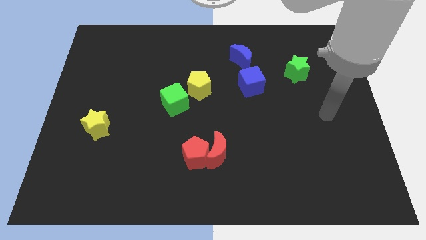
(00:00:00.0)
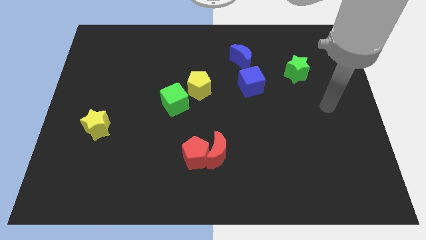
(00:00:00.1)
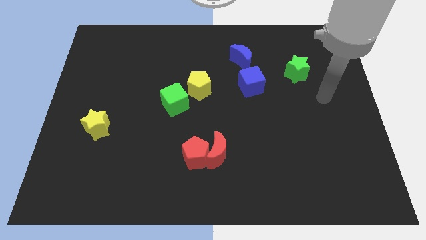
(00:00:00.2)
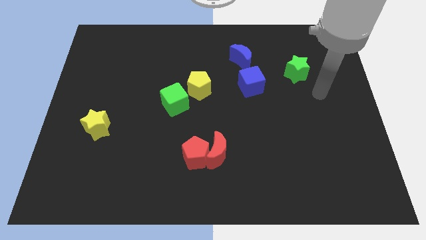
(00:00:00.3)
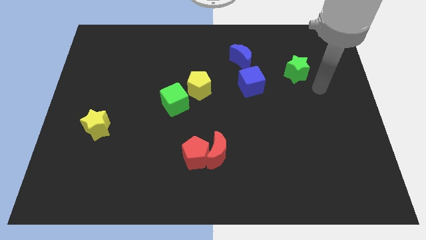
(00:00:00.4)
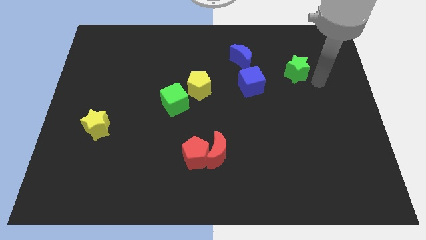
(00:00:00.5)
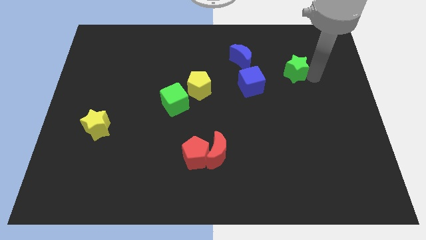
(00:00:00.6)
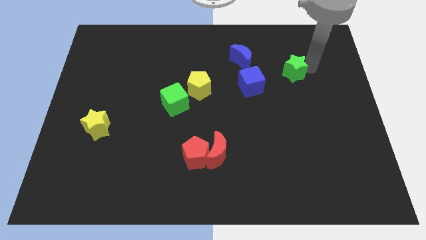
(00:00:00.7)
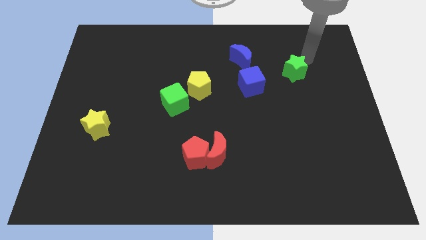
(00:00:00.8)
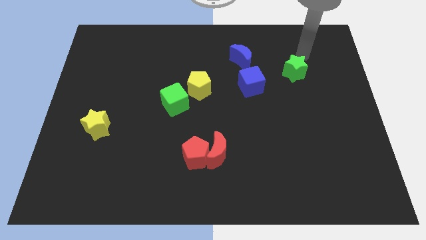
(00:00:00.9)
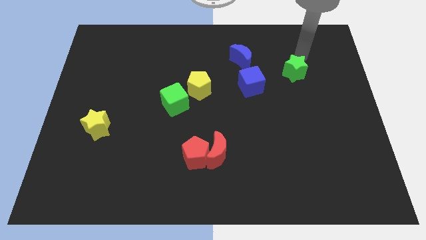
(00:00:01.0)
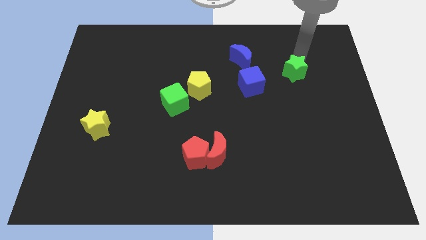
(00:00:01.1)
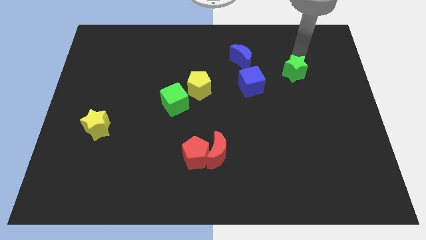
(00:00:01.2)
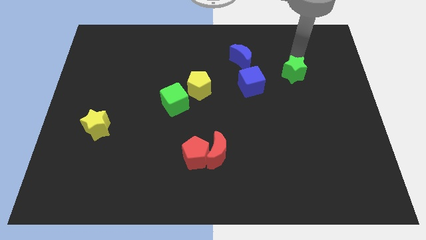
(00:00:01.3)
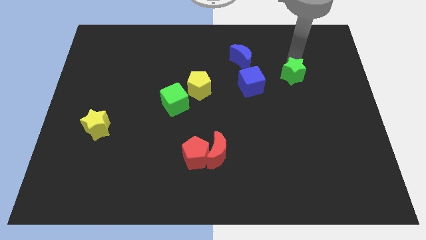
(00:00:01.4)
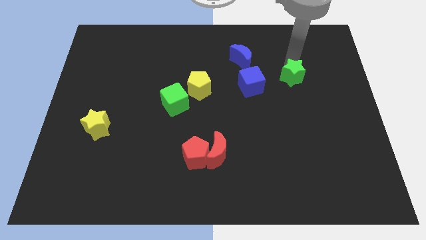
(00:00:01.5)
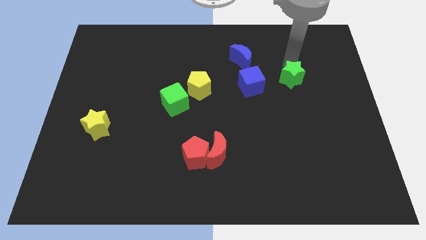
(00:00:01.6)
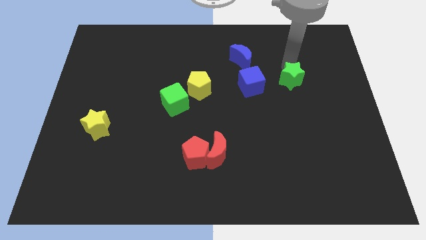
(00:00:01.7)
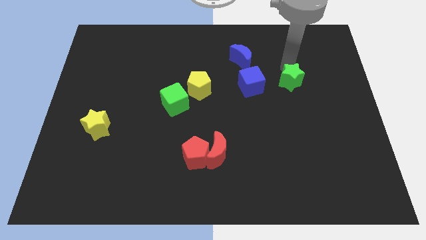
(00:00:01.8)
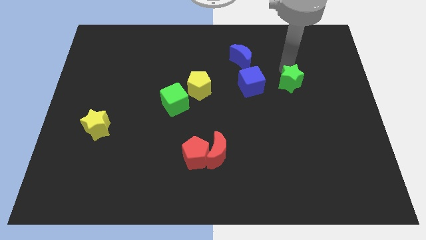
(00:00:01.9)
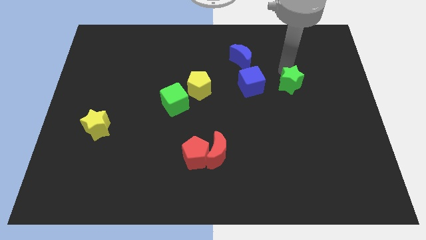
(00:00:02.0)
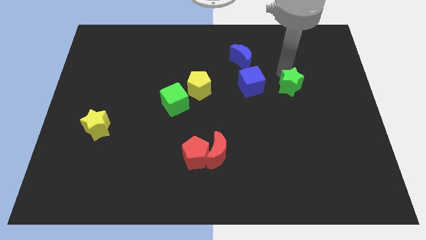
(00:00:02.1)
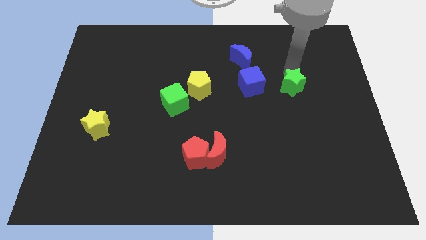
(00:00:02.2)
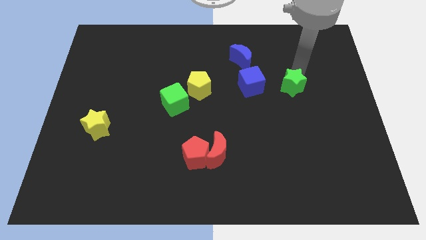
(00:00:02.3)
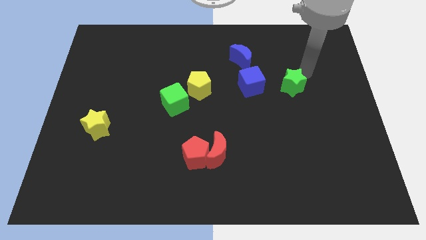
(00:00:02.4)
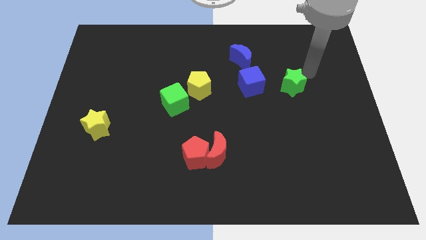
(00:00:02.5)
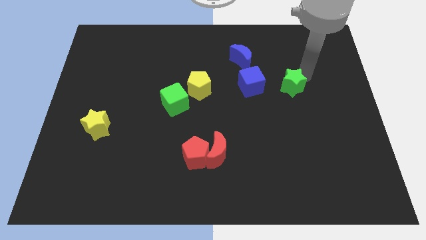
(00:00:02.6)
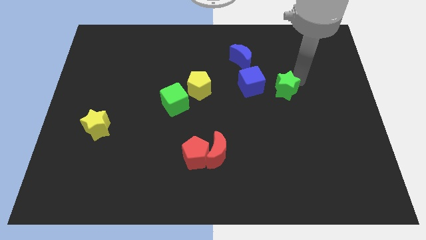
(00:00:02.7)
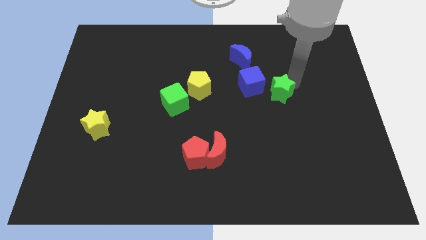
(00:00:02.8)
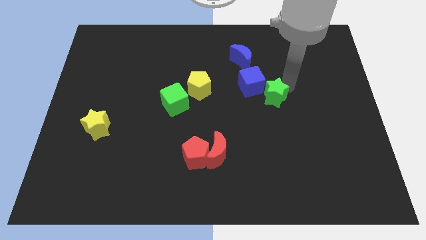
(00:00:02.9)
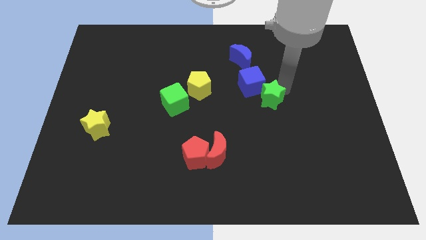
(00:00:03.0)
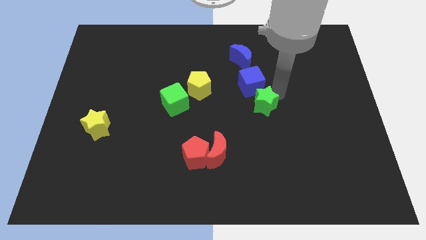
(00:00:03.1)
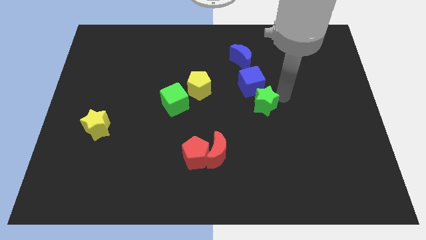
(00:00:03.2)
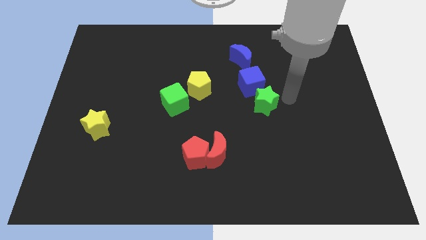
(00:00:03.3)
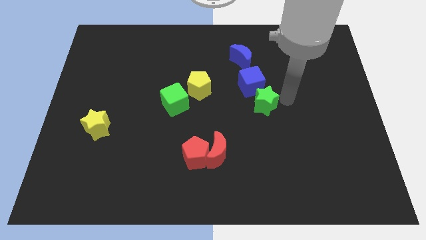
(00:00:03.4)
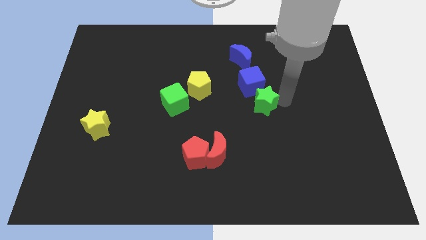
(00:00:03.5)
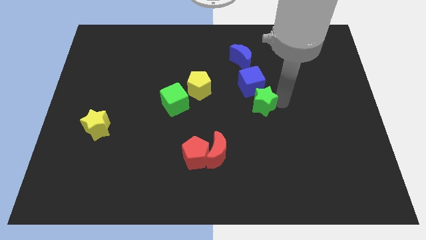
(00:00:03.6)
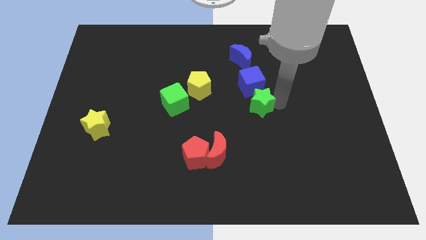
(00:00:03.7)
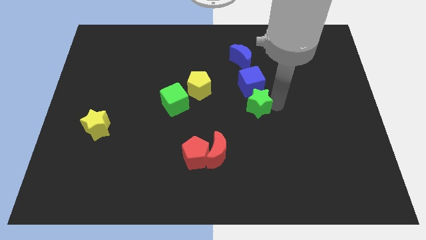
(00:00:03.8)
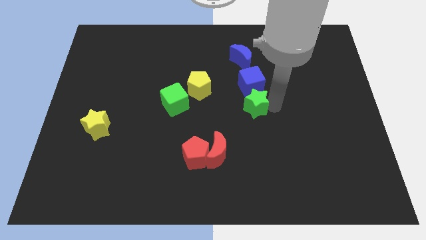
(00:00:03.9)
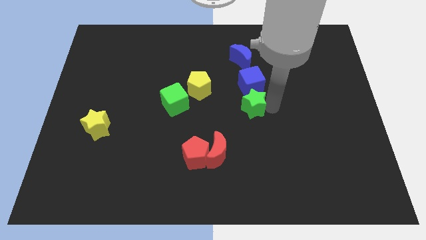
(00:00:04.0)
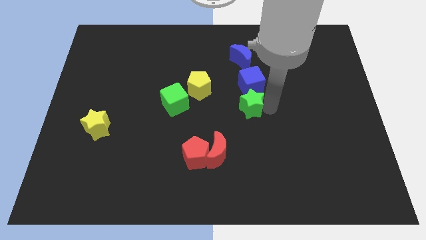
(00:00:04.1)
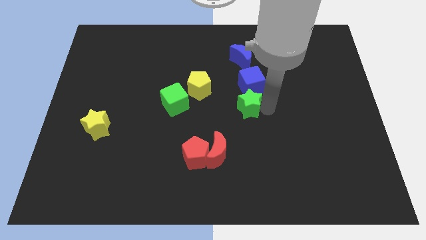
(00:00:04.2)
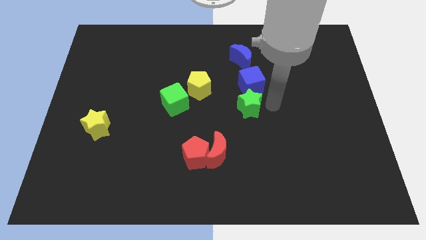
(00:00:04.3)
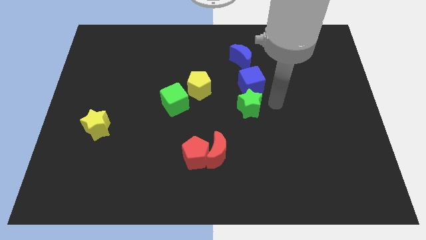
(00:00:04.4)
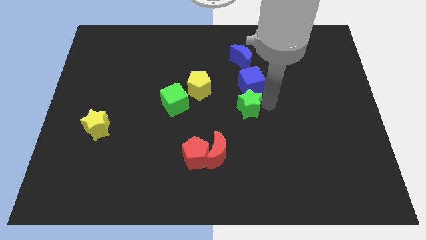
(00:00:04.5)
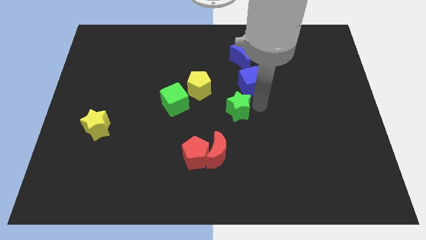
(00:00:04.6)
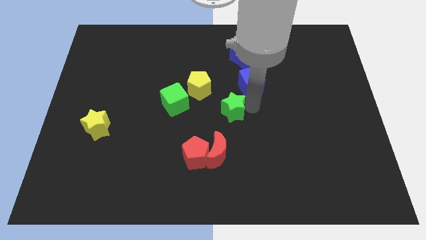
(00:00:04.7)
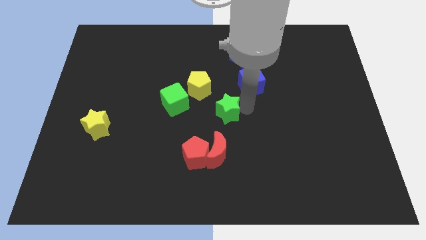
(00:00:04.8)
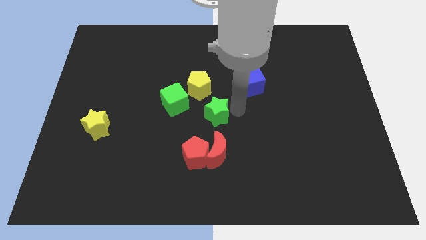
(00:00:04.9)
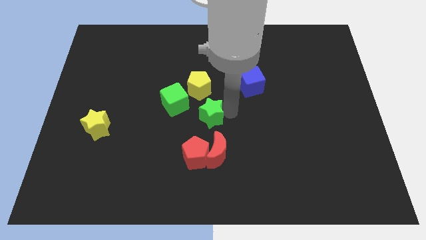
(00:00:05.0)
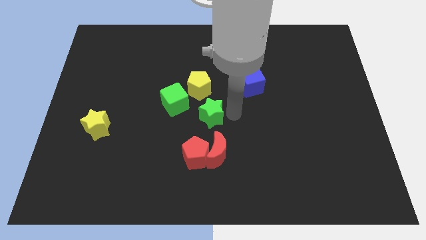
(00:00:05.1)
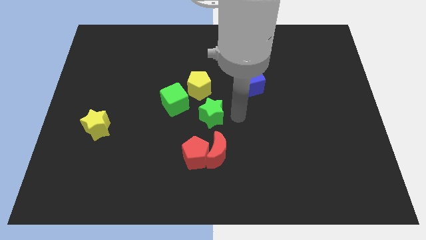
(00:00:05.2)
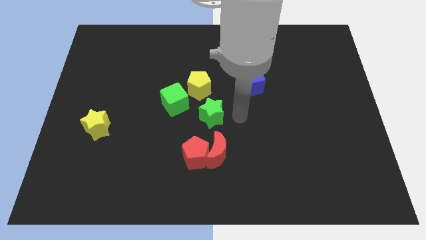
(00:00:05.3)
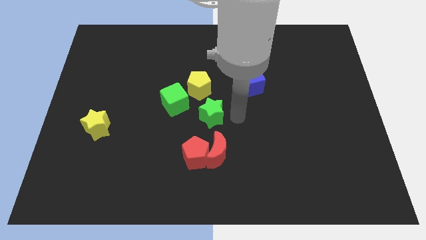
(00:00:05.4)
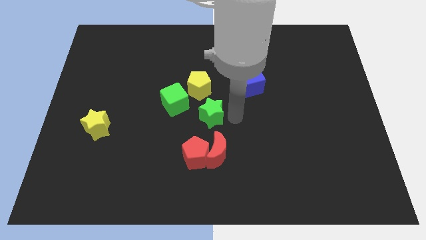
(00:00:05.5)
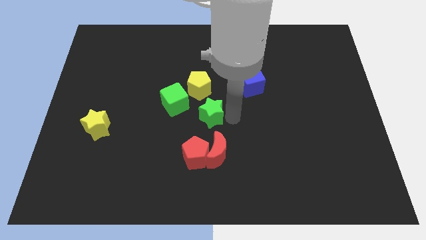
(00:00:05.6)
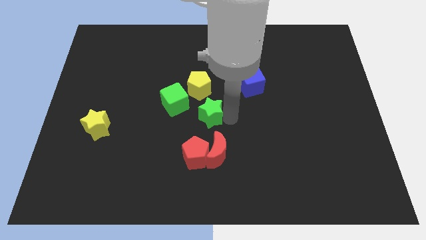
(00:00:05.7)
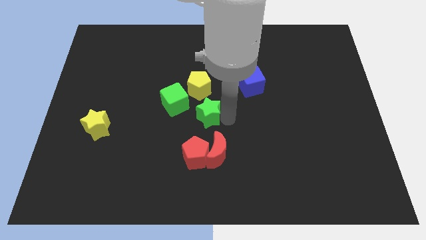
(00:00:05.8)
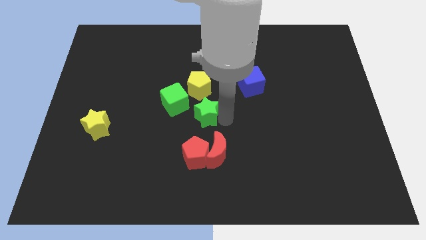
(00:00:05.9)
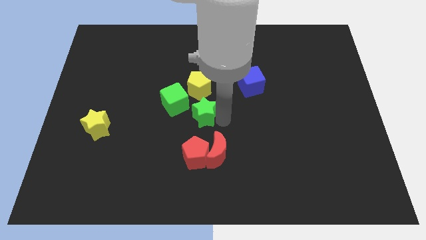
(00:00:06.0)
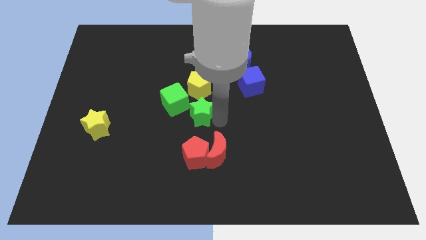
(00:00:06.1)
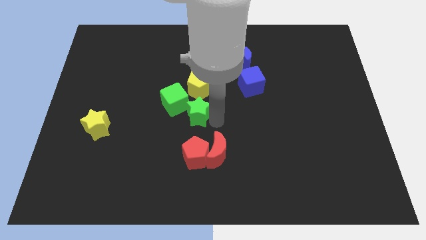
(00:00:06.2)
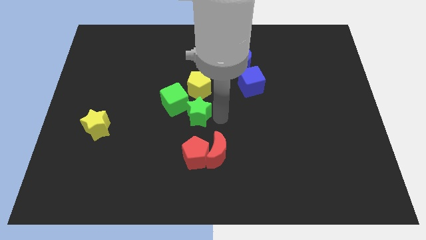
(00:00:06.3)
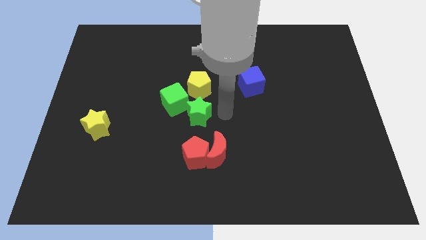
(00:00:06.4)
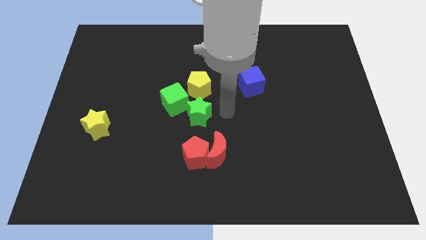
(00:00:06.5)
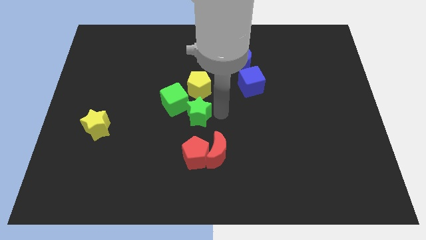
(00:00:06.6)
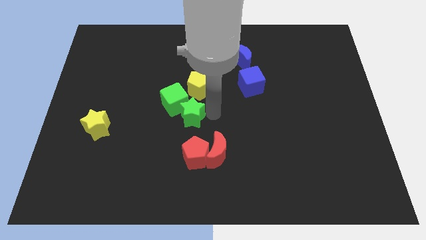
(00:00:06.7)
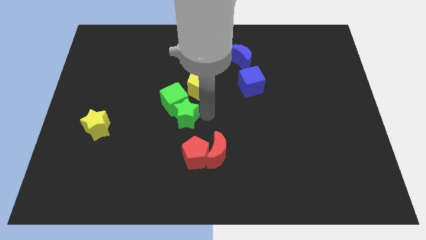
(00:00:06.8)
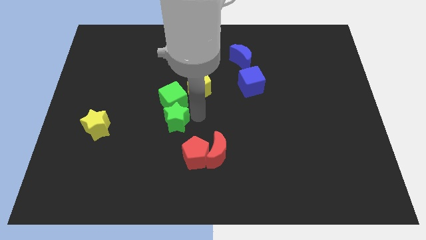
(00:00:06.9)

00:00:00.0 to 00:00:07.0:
put the green star diagonally down and to the left of the green cube

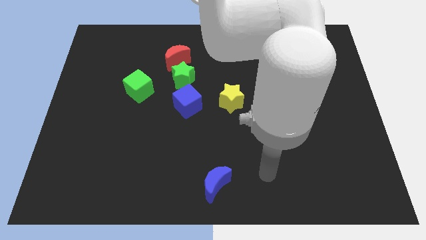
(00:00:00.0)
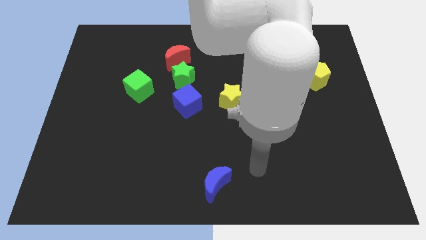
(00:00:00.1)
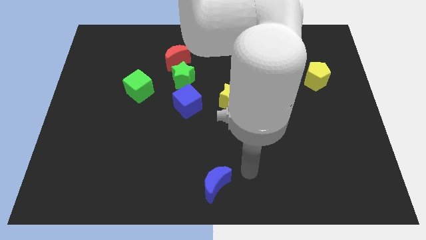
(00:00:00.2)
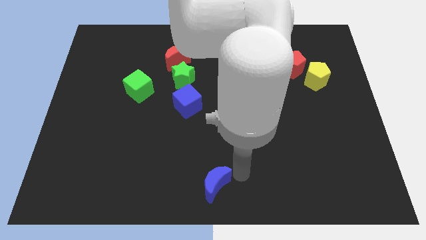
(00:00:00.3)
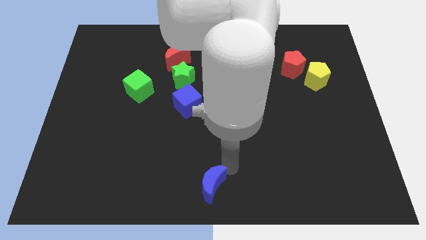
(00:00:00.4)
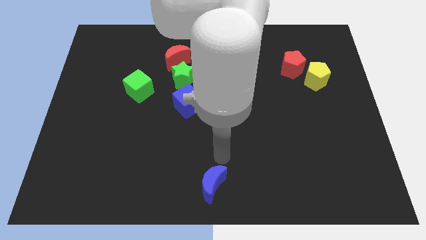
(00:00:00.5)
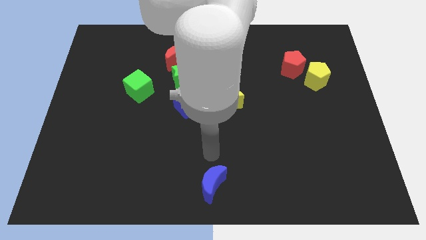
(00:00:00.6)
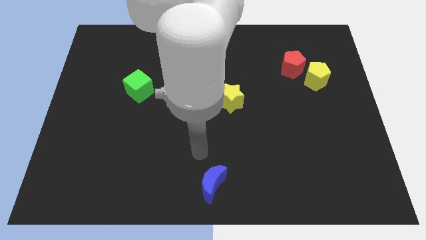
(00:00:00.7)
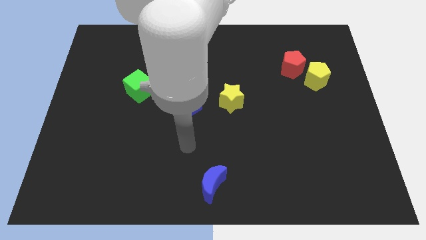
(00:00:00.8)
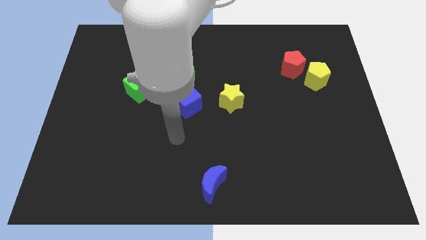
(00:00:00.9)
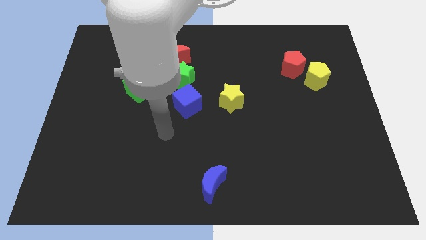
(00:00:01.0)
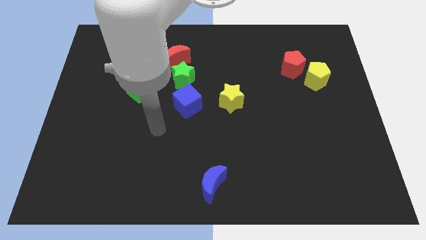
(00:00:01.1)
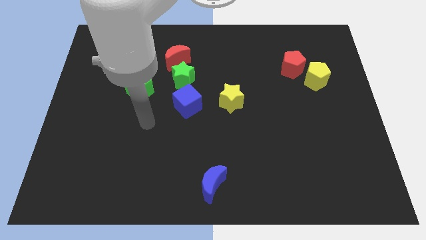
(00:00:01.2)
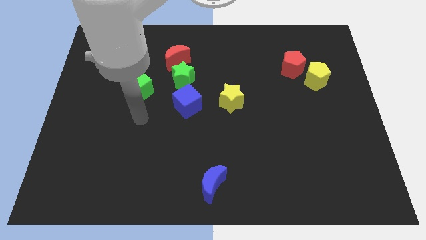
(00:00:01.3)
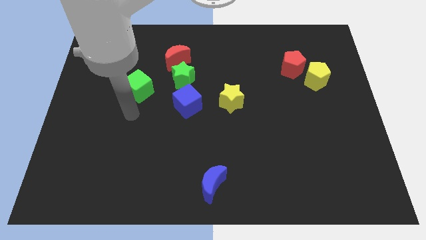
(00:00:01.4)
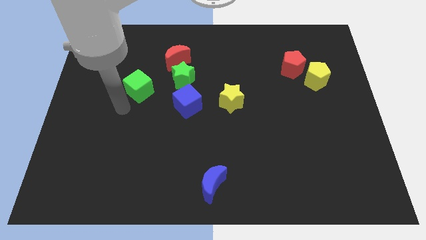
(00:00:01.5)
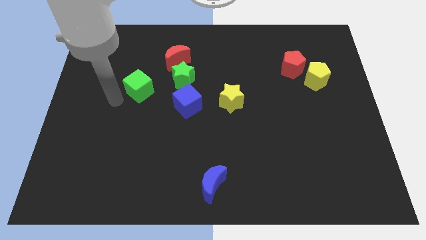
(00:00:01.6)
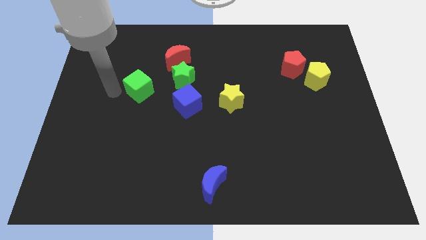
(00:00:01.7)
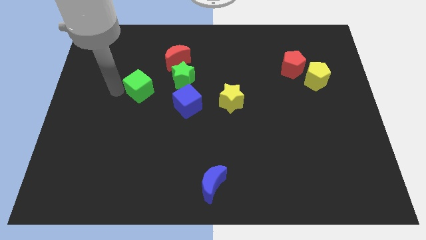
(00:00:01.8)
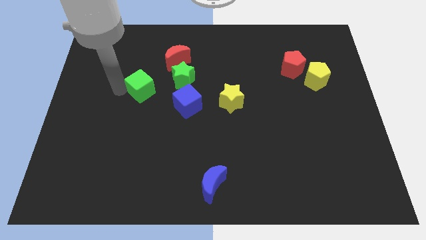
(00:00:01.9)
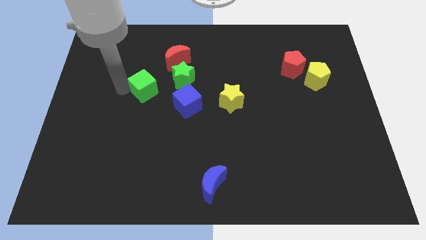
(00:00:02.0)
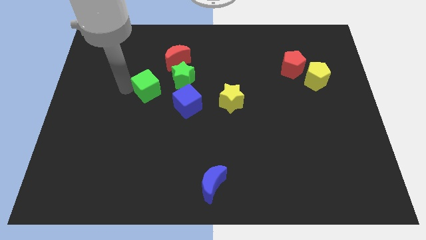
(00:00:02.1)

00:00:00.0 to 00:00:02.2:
slide the green cube to the top left side of the blue cube
